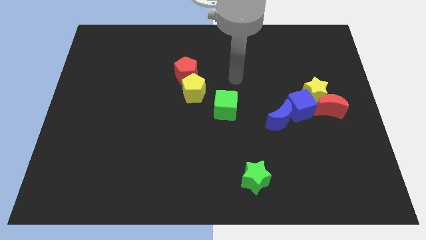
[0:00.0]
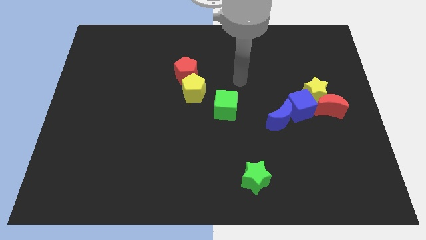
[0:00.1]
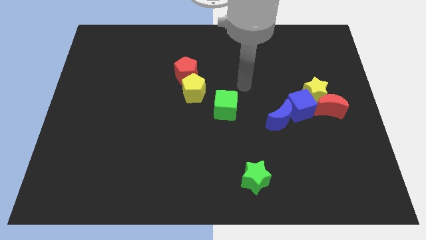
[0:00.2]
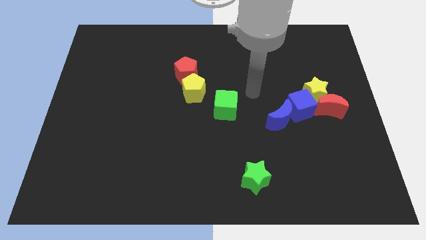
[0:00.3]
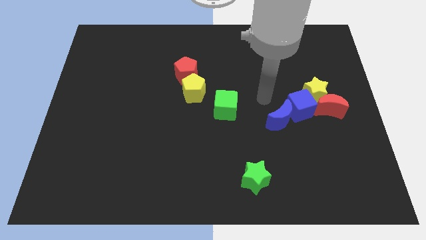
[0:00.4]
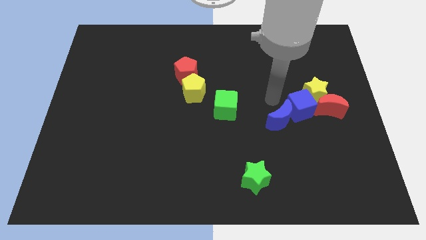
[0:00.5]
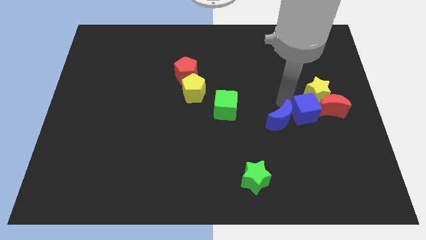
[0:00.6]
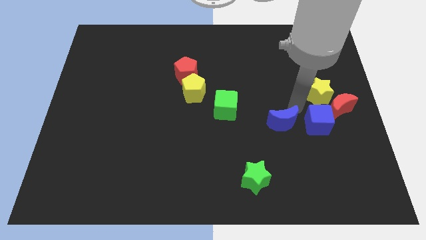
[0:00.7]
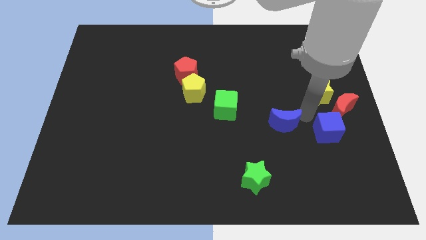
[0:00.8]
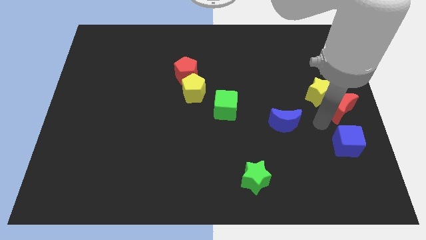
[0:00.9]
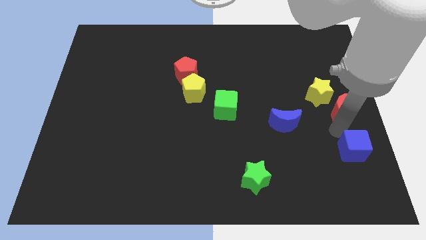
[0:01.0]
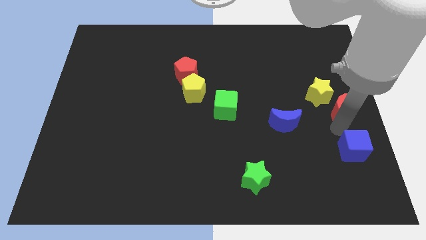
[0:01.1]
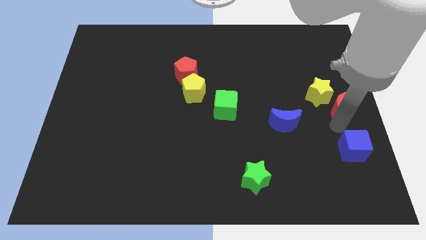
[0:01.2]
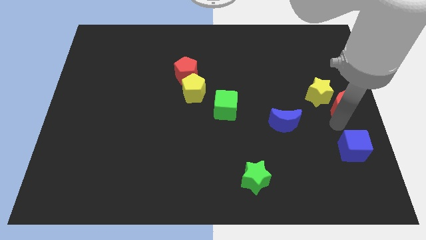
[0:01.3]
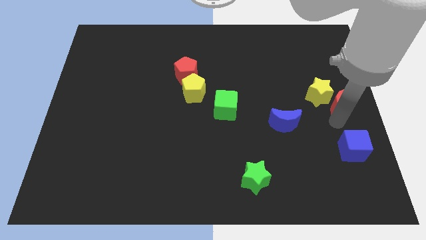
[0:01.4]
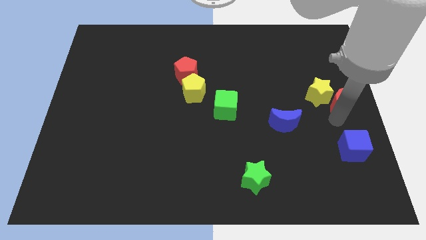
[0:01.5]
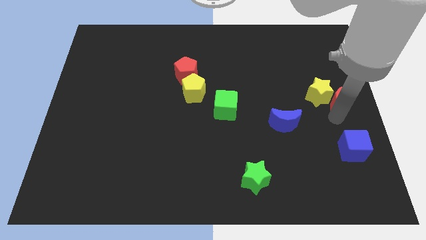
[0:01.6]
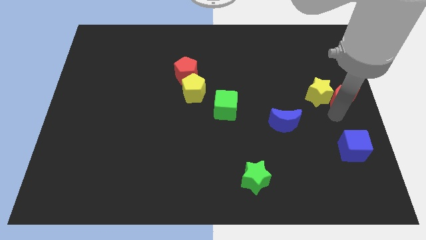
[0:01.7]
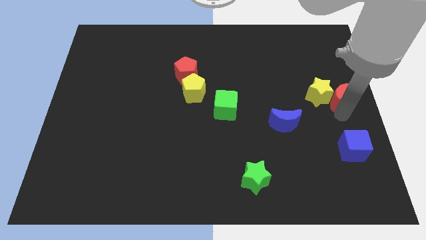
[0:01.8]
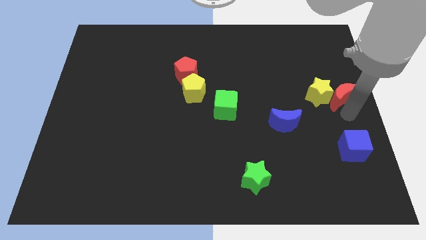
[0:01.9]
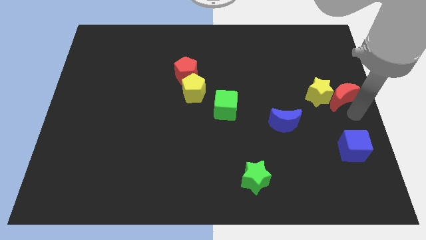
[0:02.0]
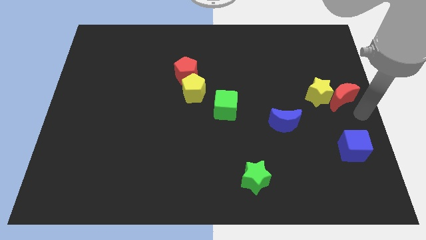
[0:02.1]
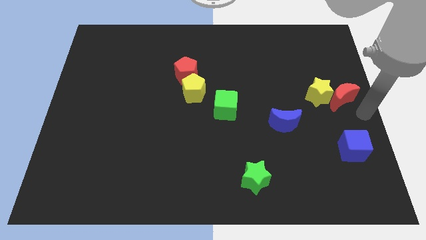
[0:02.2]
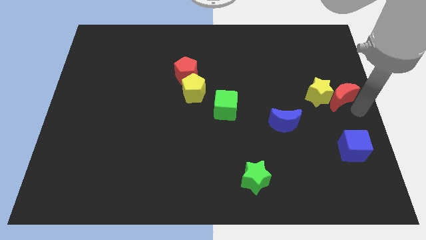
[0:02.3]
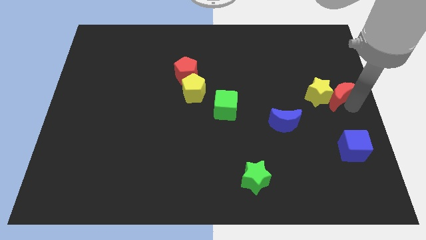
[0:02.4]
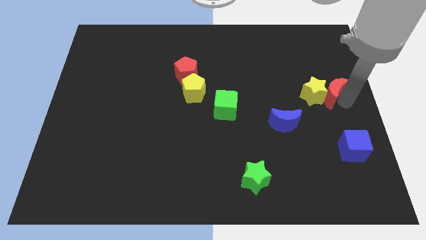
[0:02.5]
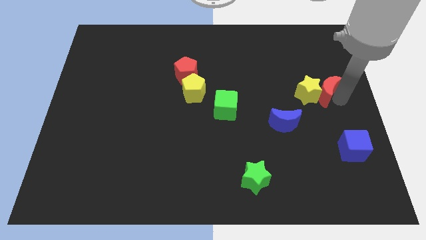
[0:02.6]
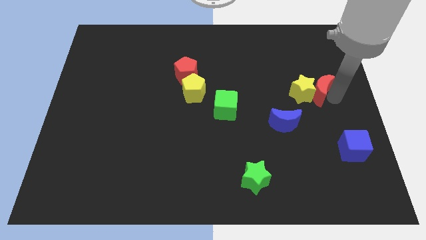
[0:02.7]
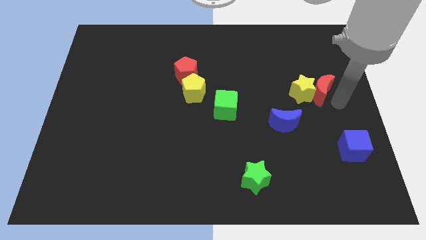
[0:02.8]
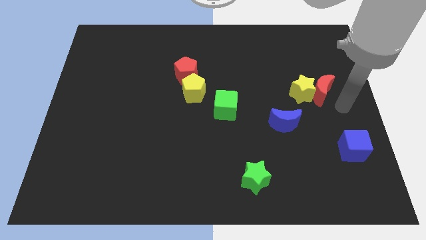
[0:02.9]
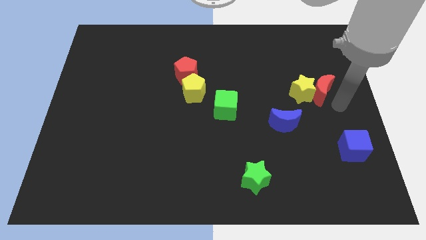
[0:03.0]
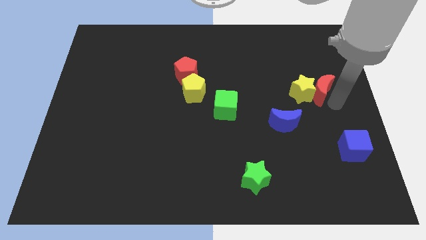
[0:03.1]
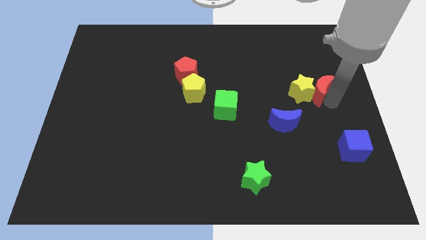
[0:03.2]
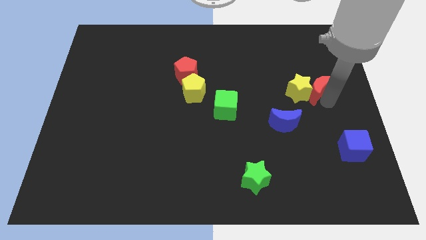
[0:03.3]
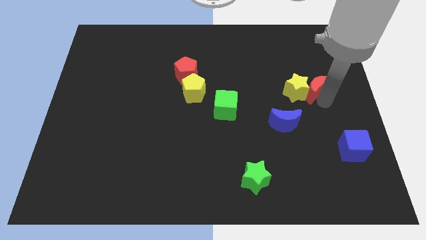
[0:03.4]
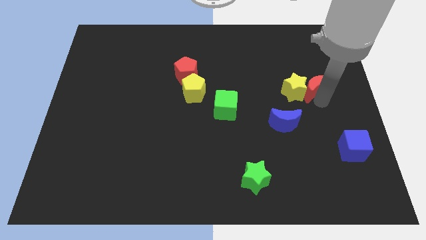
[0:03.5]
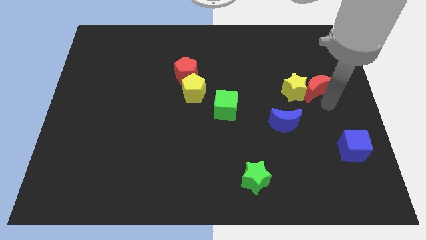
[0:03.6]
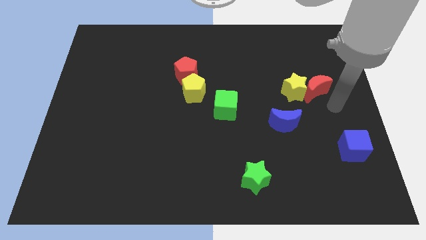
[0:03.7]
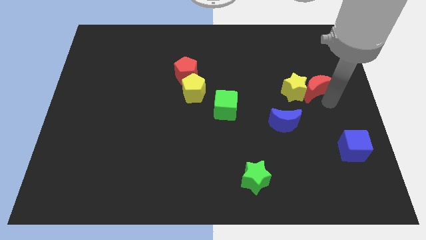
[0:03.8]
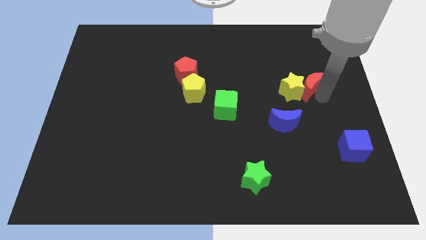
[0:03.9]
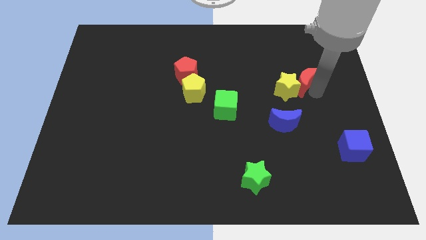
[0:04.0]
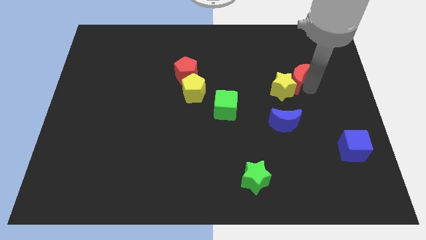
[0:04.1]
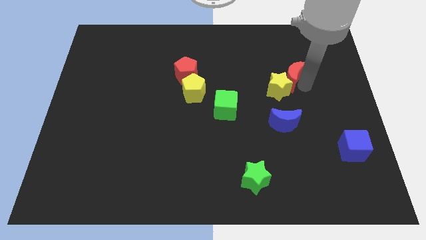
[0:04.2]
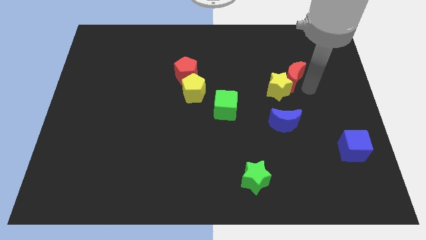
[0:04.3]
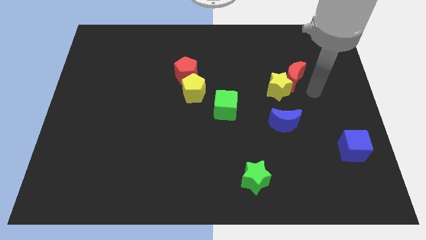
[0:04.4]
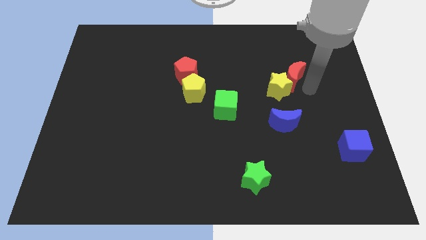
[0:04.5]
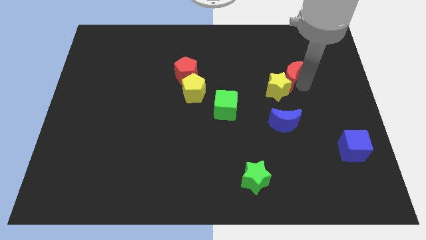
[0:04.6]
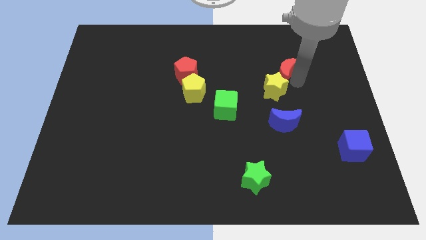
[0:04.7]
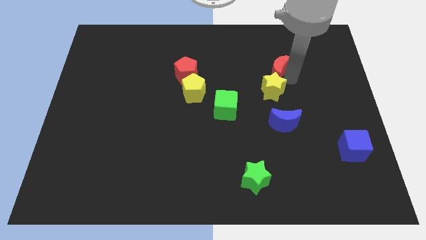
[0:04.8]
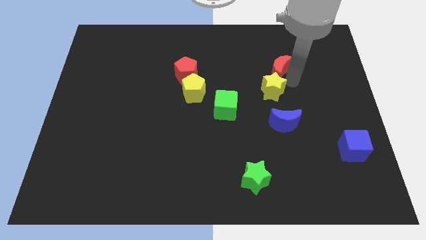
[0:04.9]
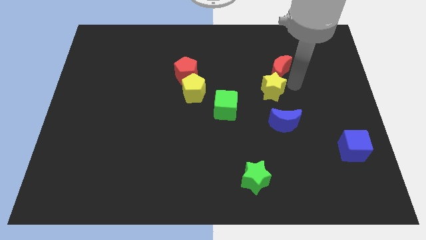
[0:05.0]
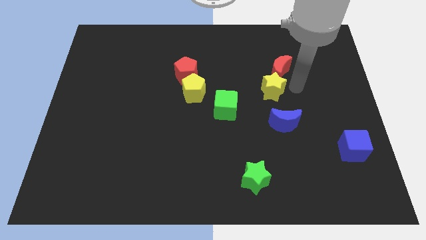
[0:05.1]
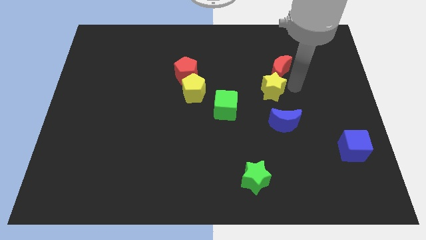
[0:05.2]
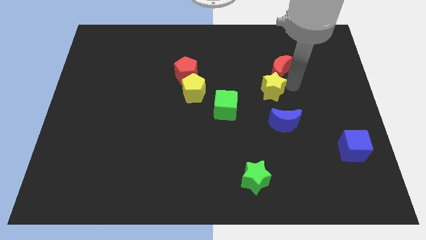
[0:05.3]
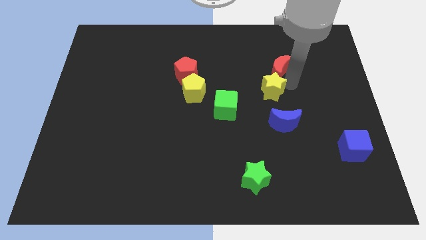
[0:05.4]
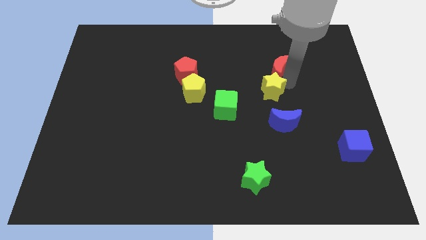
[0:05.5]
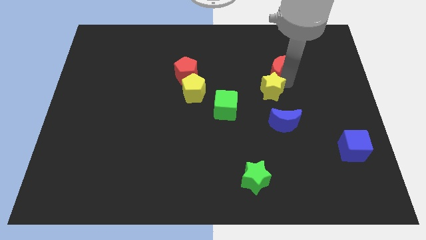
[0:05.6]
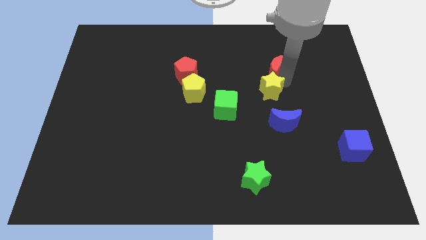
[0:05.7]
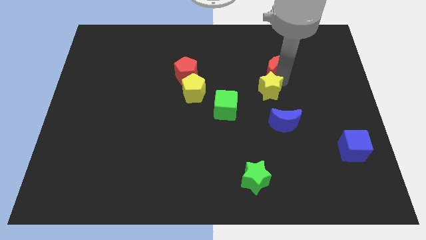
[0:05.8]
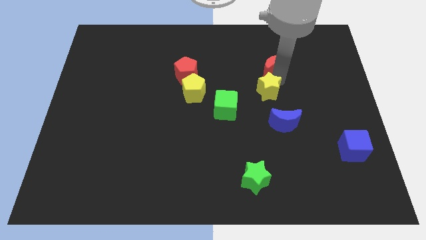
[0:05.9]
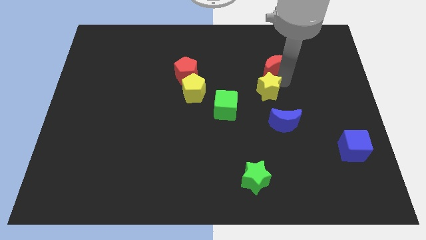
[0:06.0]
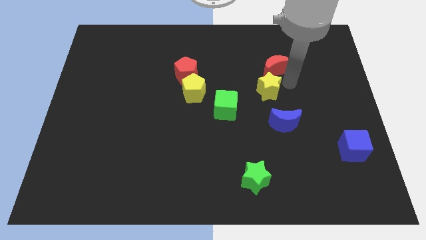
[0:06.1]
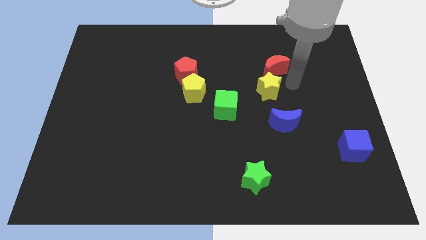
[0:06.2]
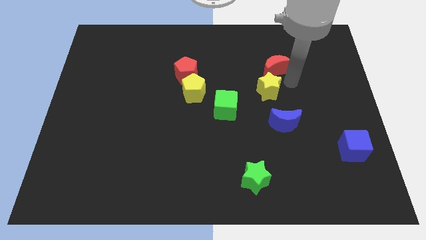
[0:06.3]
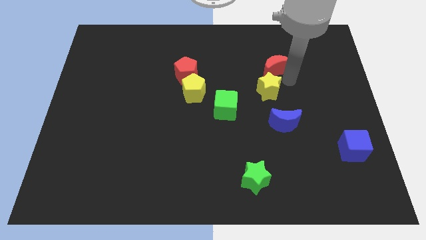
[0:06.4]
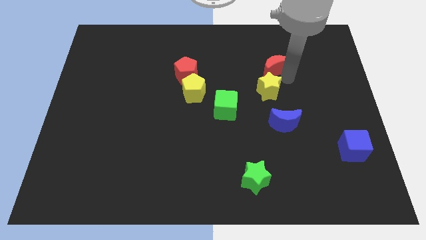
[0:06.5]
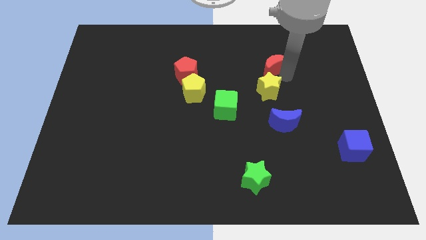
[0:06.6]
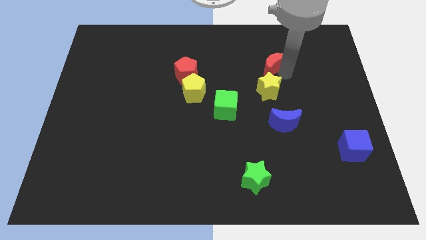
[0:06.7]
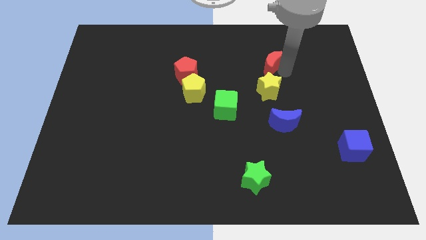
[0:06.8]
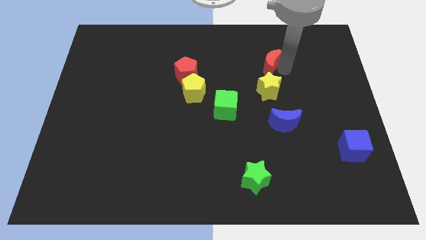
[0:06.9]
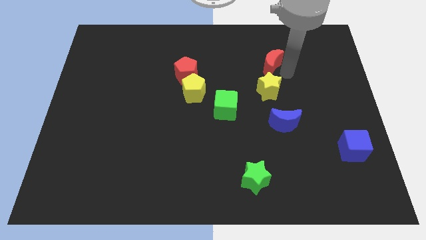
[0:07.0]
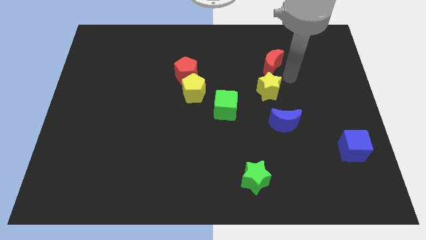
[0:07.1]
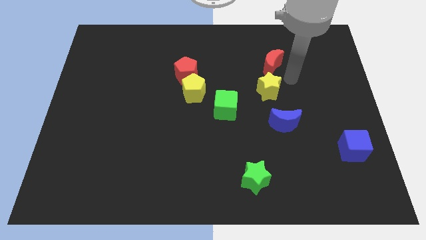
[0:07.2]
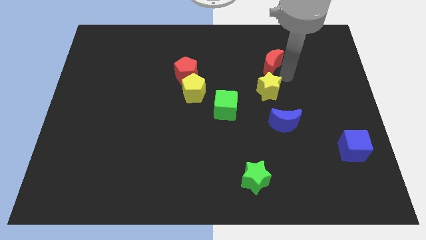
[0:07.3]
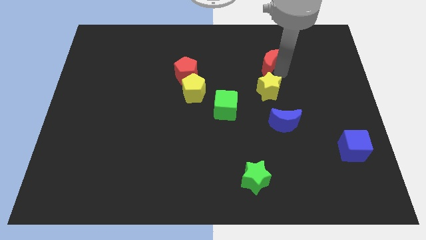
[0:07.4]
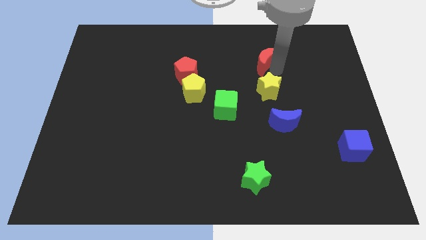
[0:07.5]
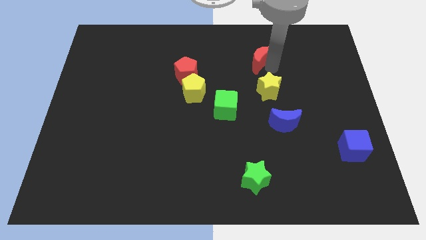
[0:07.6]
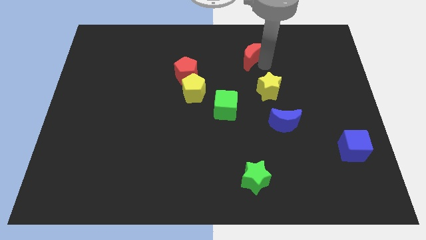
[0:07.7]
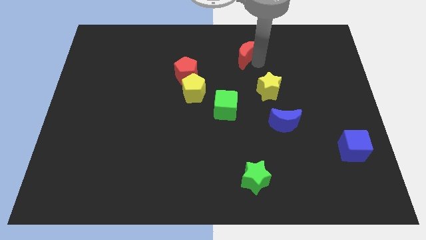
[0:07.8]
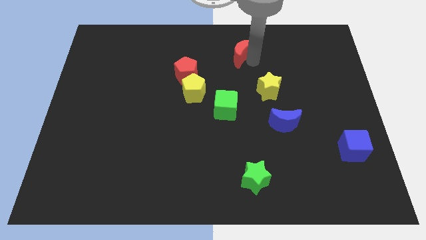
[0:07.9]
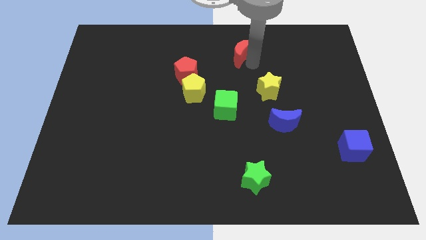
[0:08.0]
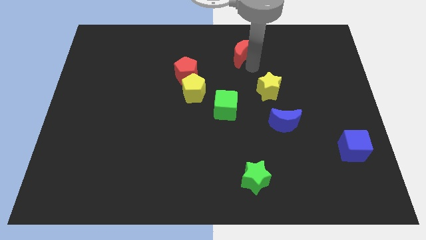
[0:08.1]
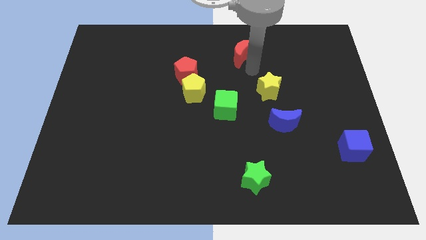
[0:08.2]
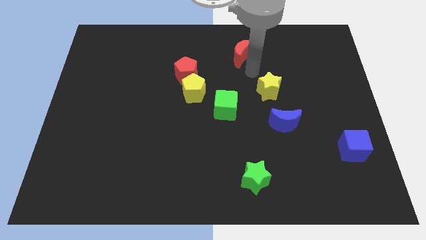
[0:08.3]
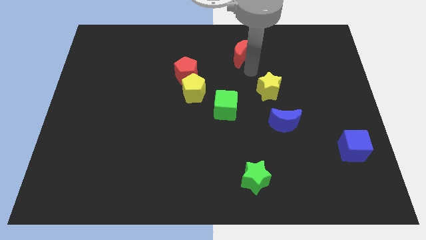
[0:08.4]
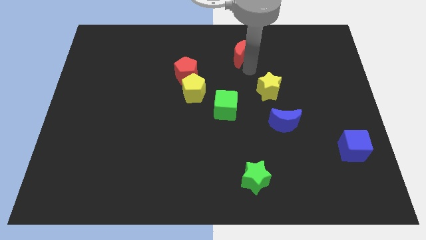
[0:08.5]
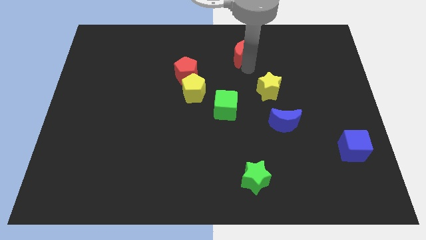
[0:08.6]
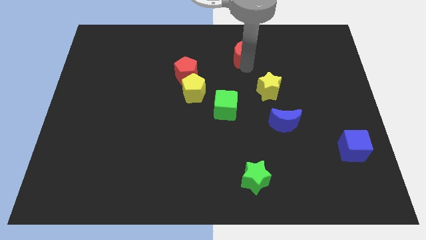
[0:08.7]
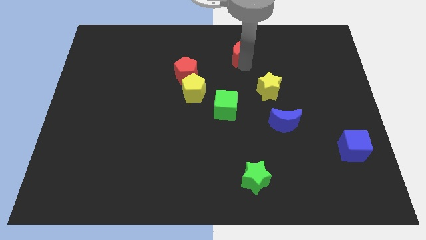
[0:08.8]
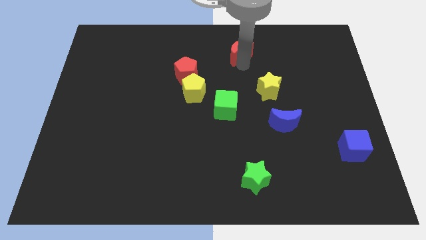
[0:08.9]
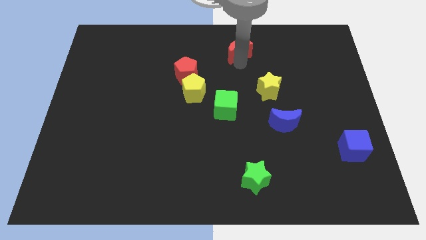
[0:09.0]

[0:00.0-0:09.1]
push the red moon to the towards your base
